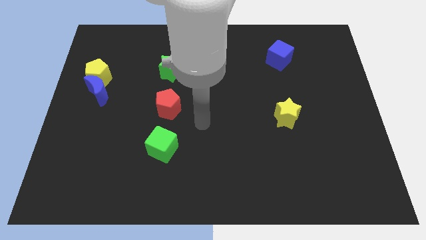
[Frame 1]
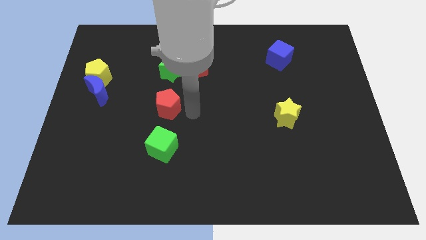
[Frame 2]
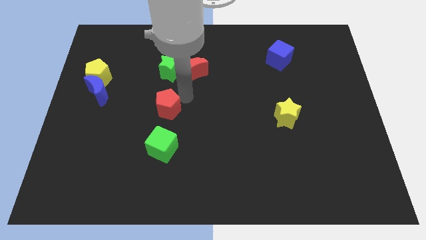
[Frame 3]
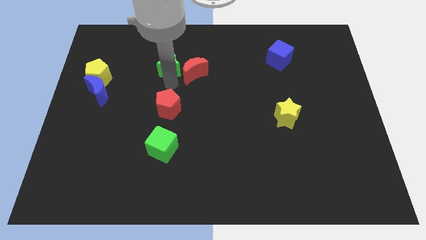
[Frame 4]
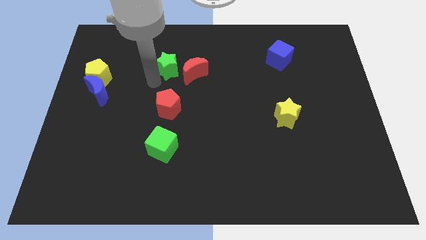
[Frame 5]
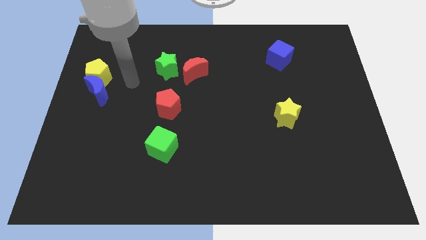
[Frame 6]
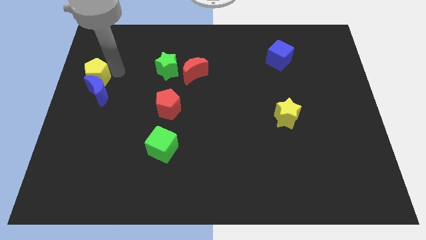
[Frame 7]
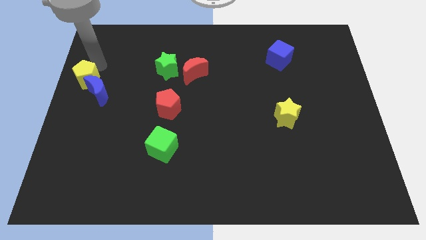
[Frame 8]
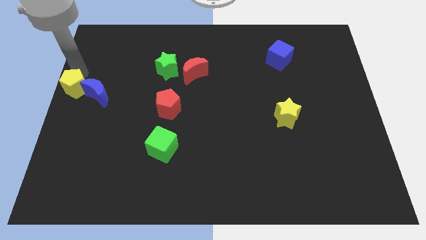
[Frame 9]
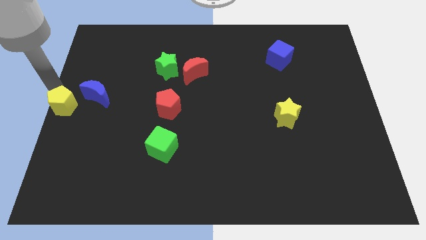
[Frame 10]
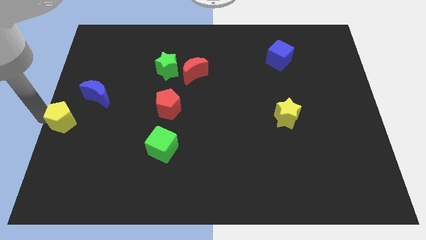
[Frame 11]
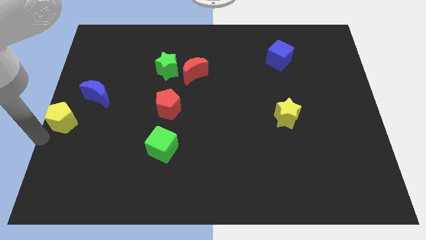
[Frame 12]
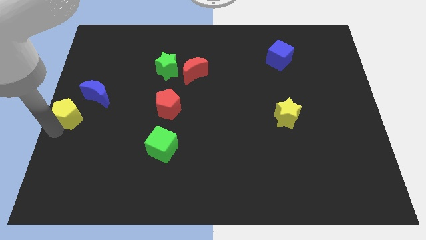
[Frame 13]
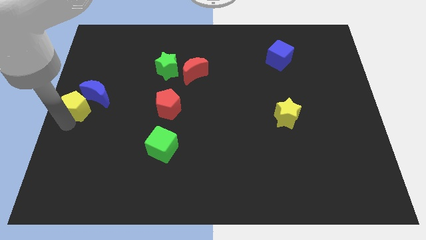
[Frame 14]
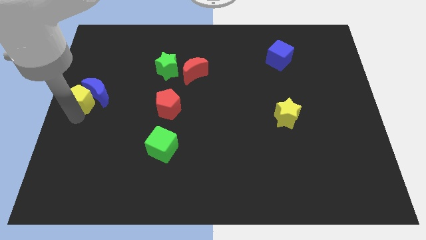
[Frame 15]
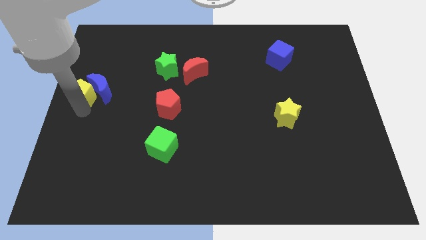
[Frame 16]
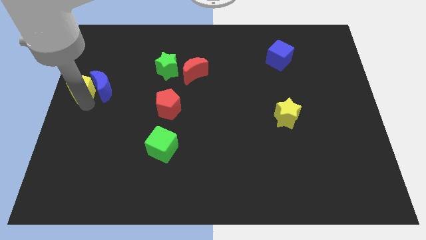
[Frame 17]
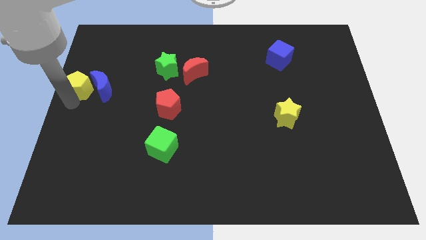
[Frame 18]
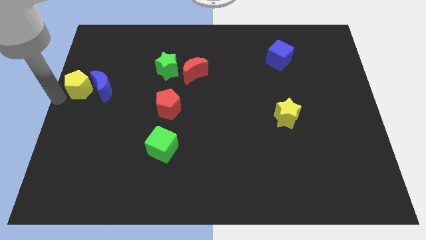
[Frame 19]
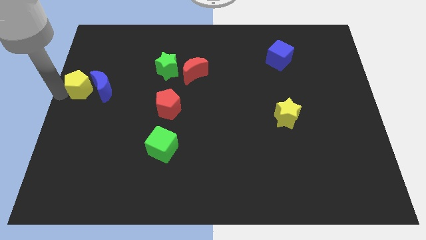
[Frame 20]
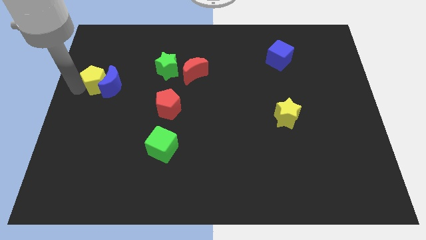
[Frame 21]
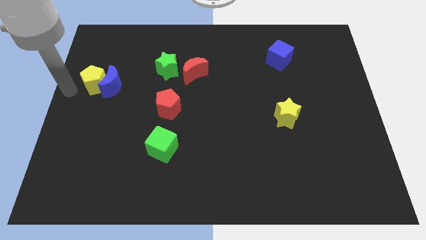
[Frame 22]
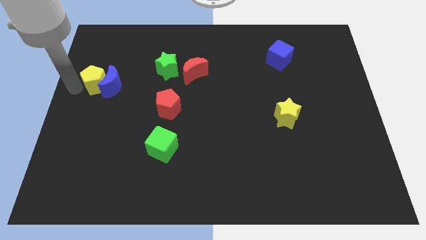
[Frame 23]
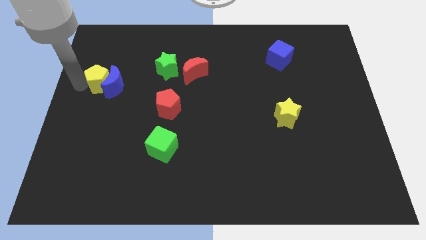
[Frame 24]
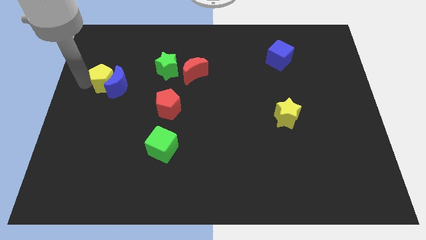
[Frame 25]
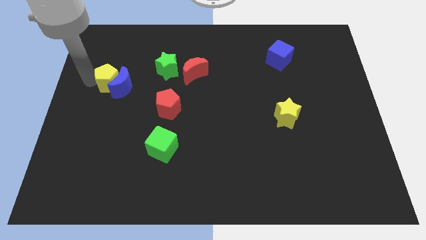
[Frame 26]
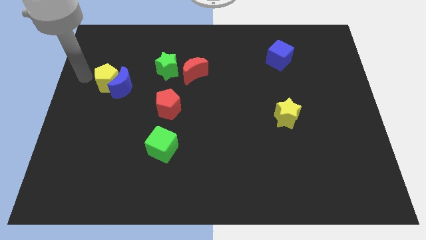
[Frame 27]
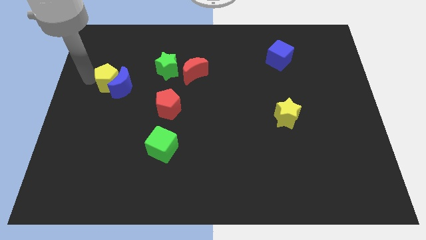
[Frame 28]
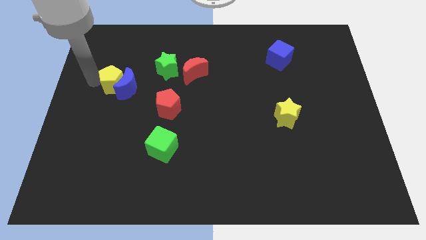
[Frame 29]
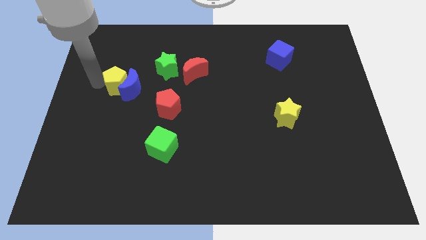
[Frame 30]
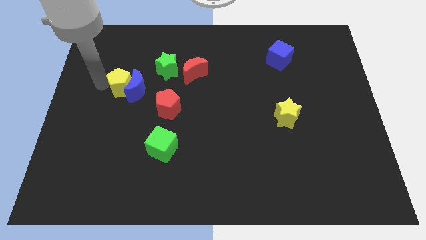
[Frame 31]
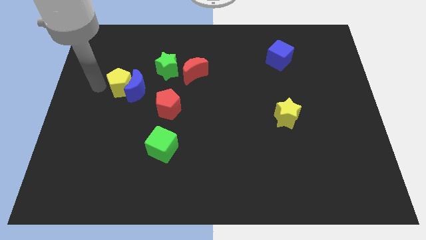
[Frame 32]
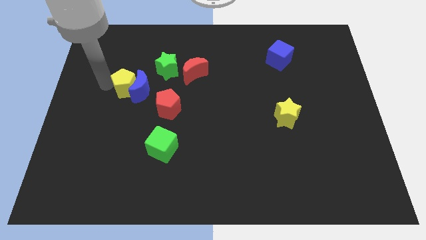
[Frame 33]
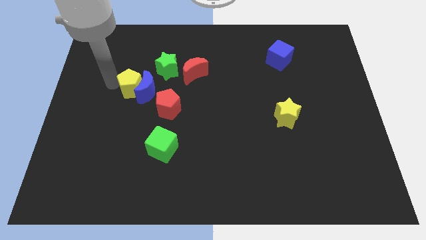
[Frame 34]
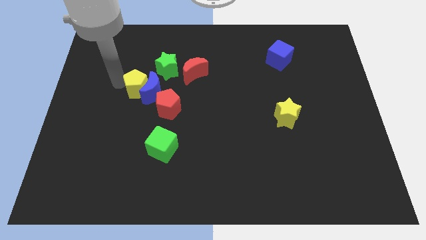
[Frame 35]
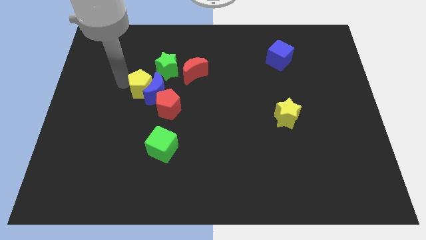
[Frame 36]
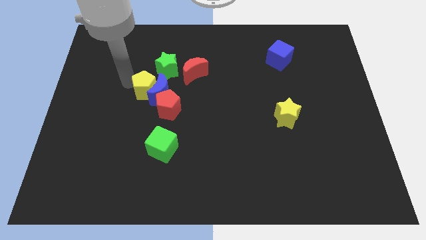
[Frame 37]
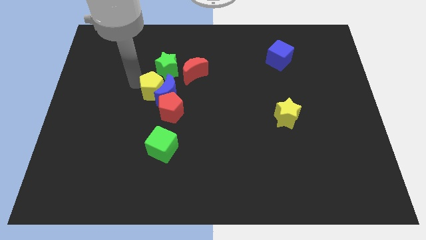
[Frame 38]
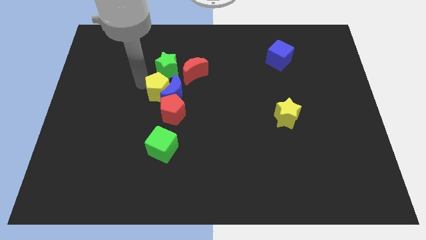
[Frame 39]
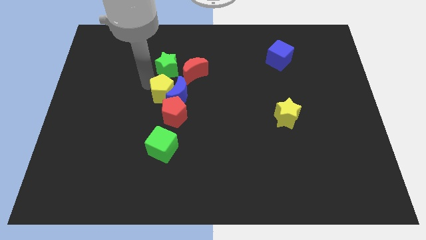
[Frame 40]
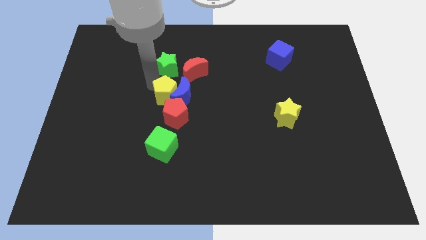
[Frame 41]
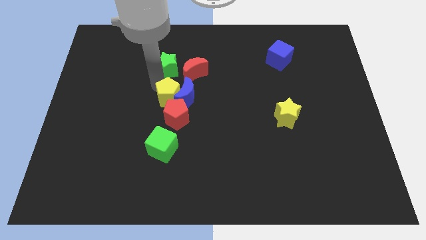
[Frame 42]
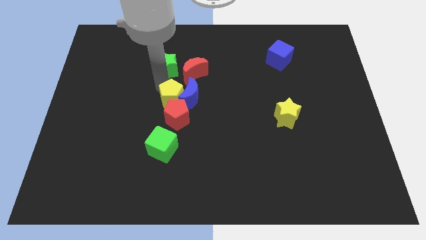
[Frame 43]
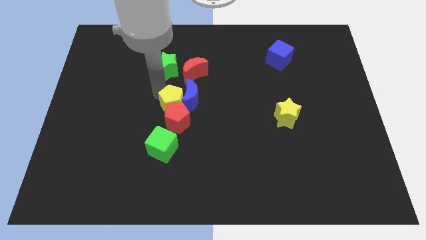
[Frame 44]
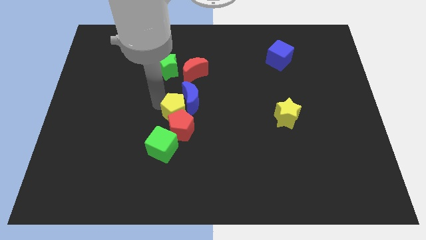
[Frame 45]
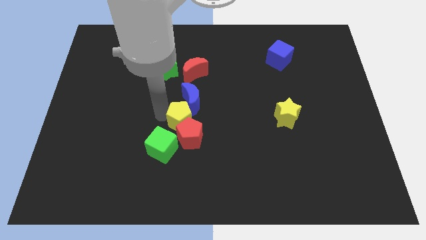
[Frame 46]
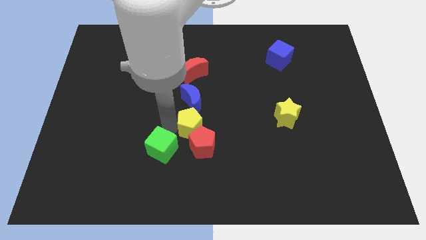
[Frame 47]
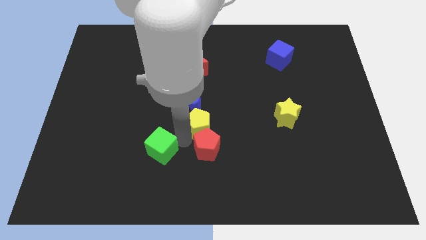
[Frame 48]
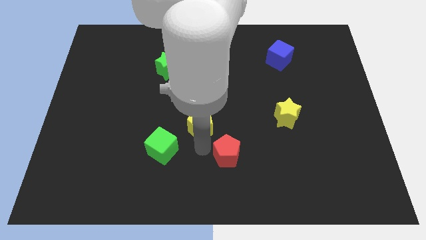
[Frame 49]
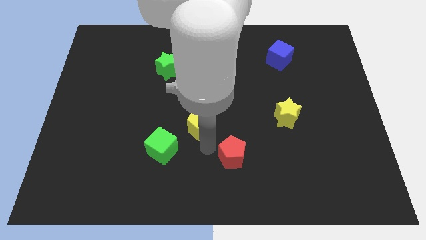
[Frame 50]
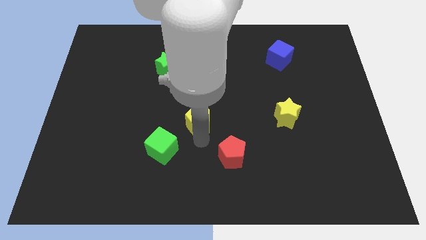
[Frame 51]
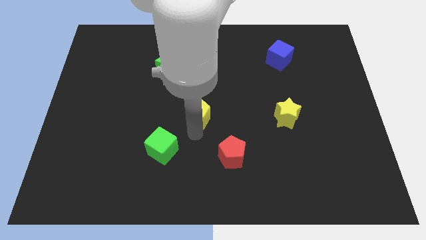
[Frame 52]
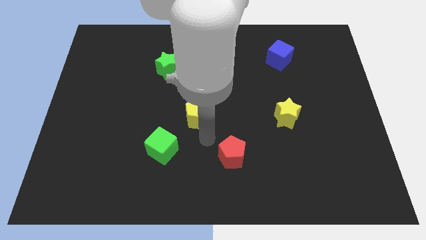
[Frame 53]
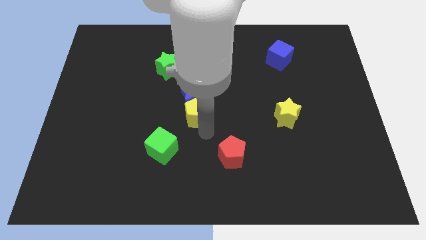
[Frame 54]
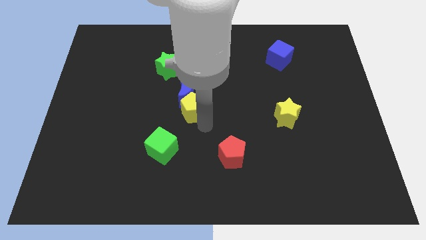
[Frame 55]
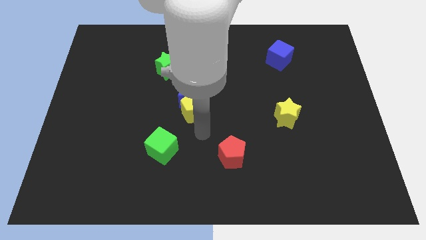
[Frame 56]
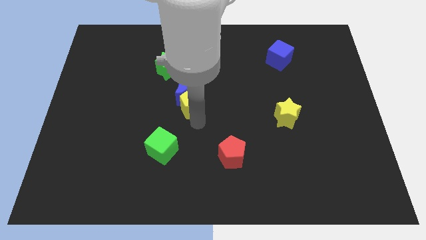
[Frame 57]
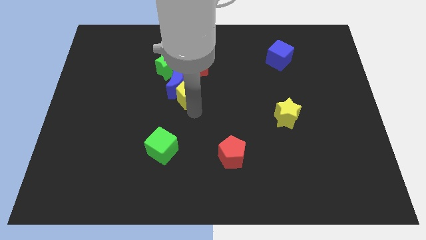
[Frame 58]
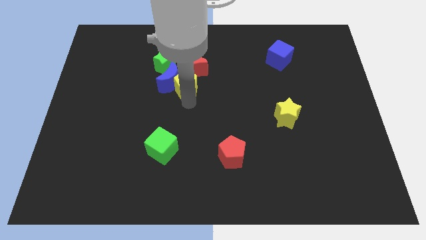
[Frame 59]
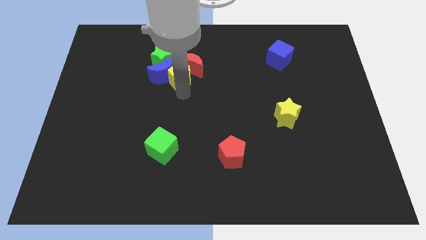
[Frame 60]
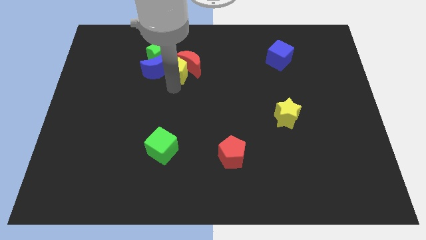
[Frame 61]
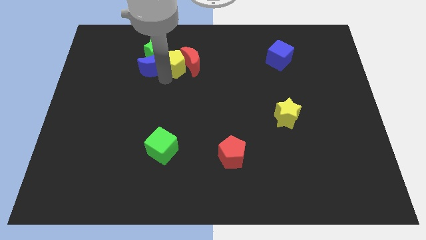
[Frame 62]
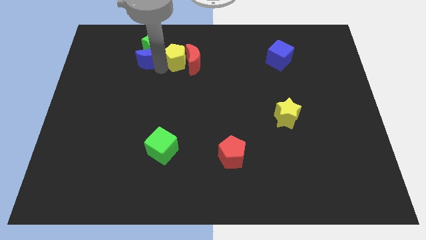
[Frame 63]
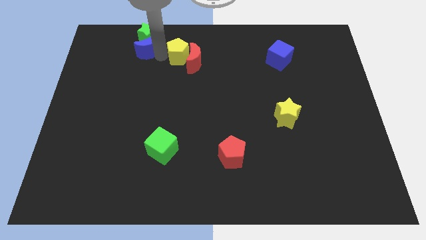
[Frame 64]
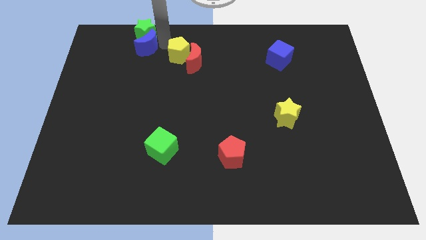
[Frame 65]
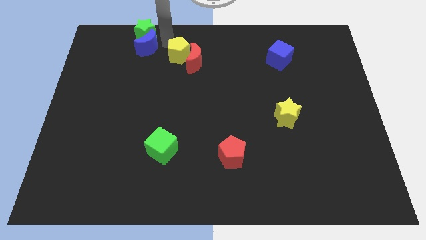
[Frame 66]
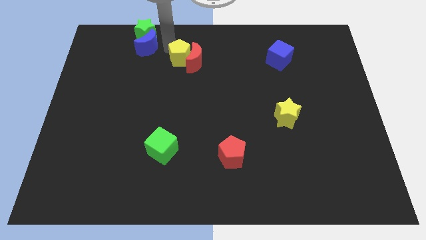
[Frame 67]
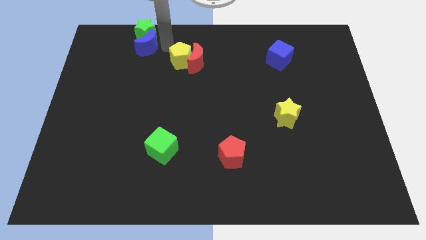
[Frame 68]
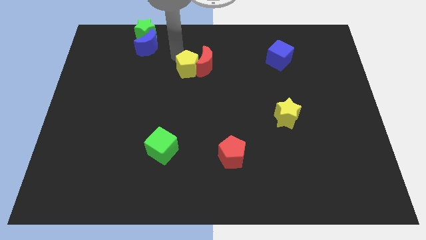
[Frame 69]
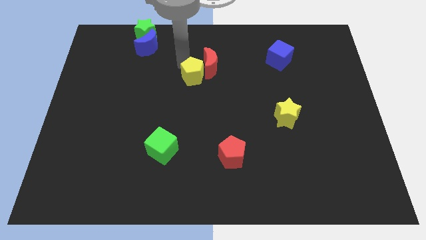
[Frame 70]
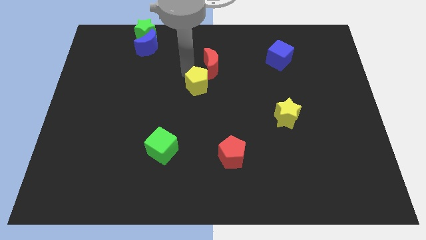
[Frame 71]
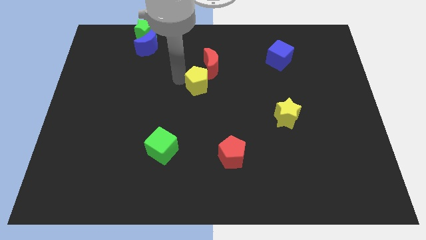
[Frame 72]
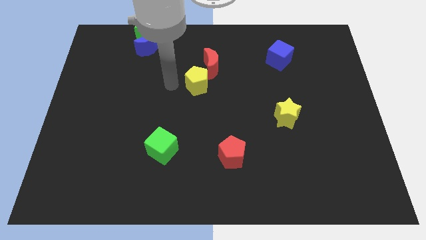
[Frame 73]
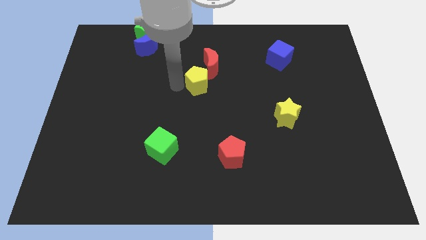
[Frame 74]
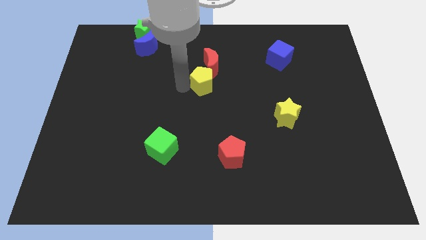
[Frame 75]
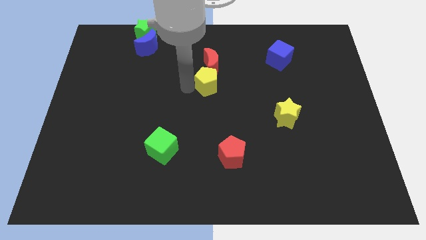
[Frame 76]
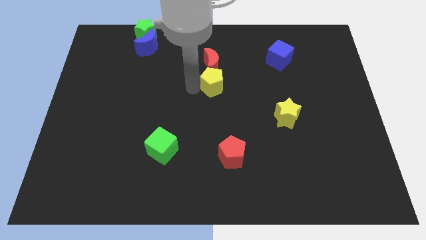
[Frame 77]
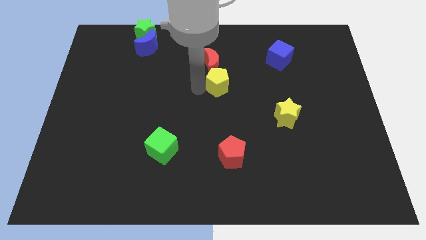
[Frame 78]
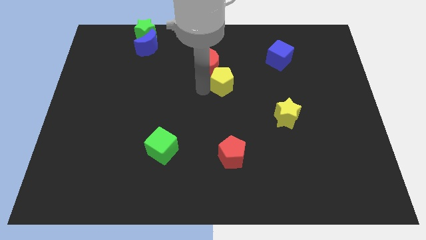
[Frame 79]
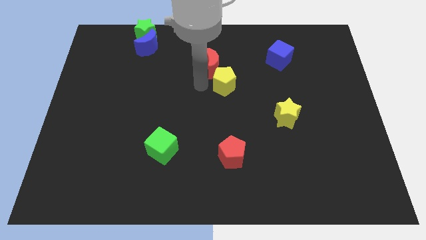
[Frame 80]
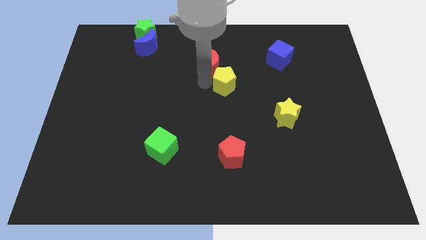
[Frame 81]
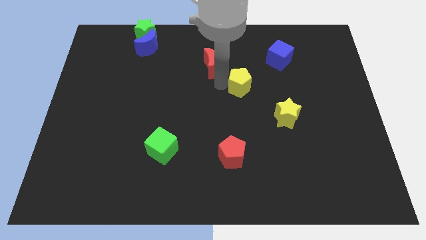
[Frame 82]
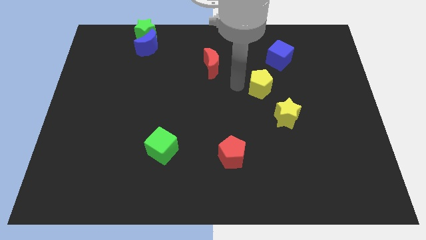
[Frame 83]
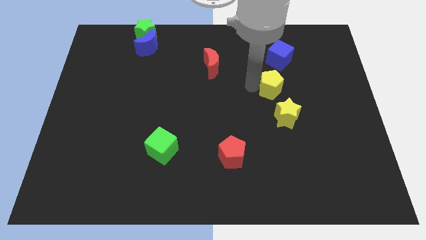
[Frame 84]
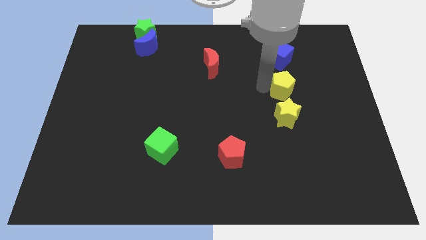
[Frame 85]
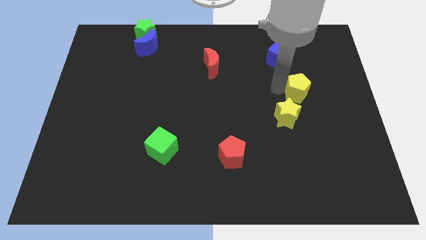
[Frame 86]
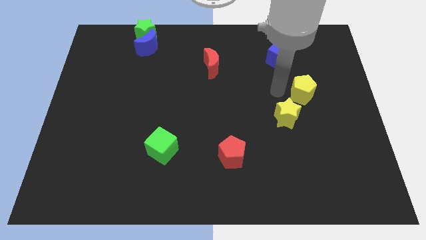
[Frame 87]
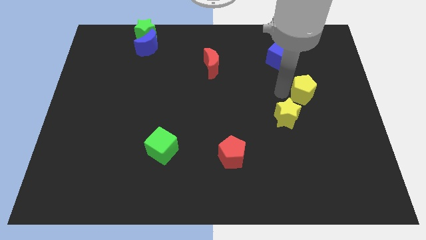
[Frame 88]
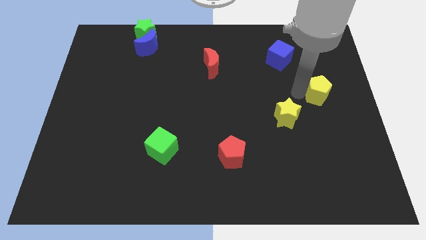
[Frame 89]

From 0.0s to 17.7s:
move the yellow pentagon to the center right
